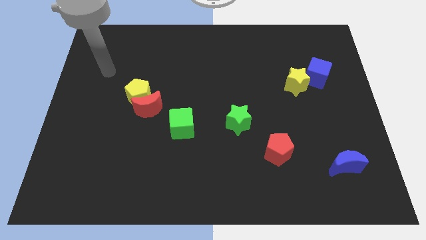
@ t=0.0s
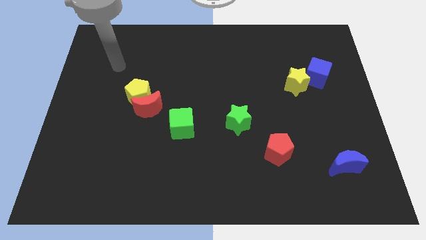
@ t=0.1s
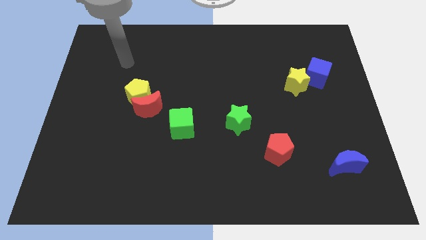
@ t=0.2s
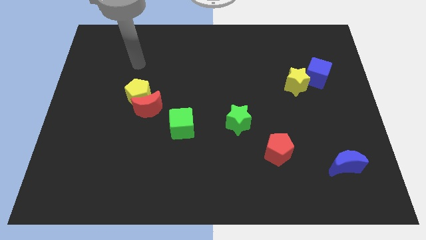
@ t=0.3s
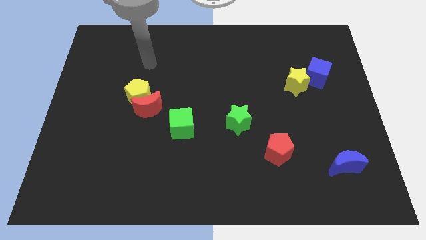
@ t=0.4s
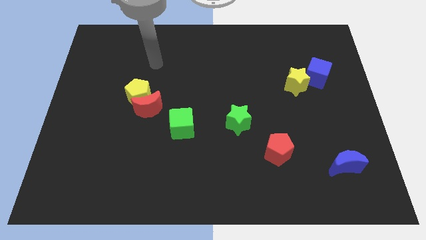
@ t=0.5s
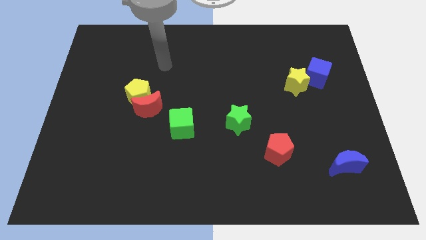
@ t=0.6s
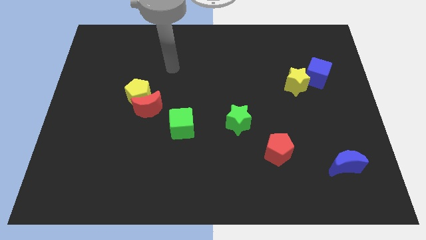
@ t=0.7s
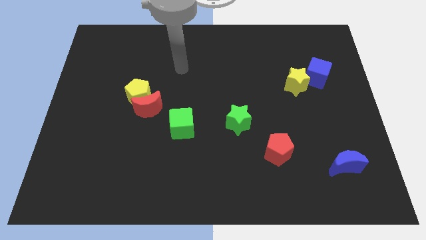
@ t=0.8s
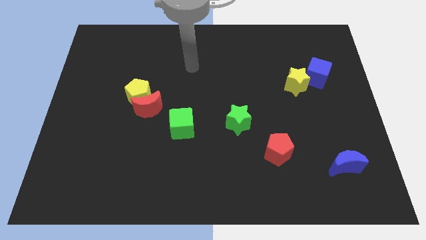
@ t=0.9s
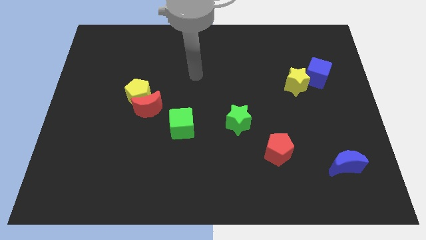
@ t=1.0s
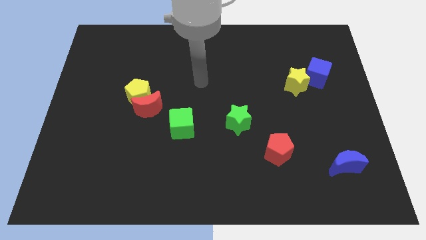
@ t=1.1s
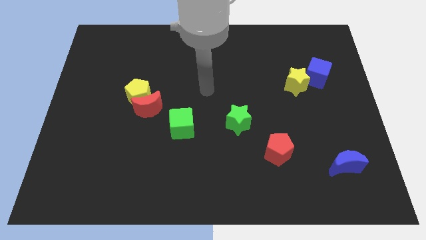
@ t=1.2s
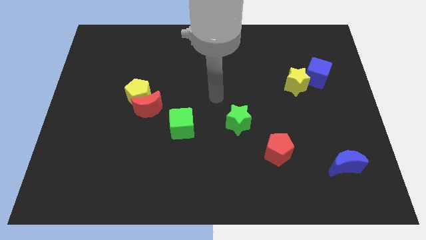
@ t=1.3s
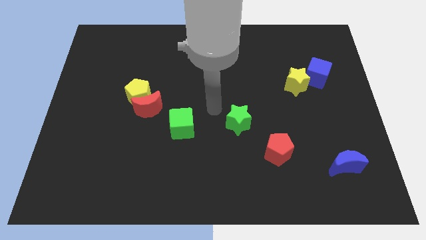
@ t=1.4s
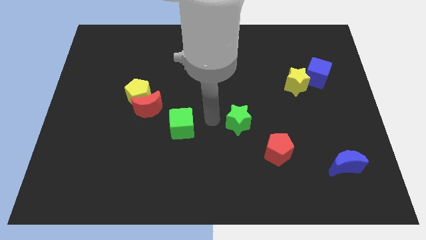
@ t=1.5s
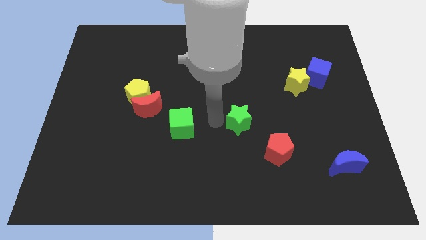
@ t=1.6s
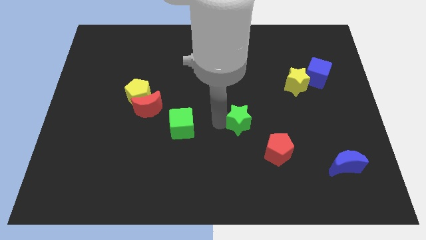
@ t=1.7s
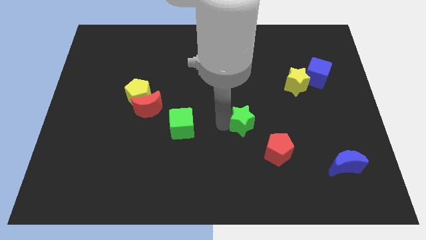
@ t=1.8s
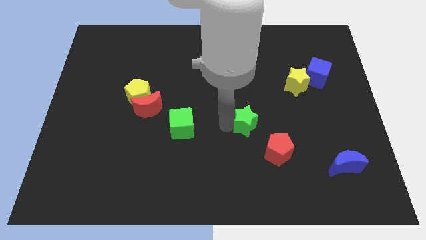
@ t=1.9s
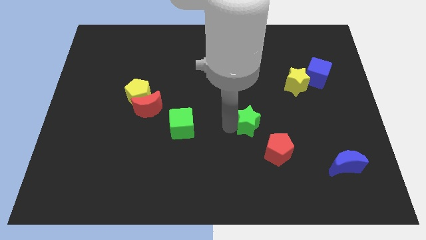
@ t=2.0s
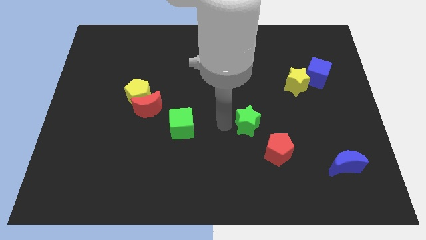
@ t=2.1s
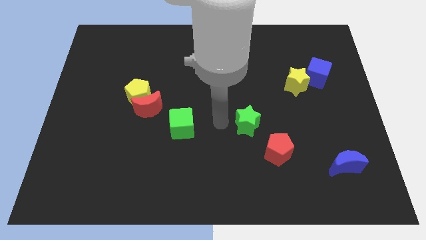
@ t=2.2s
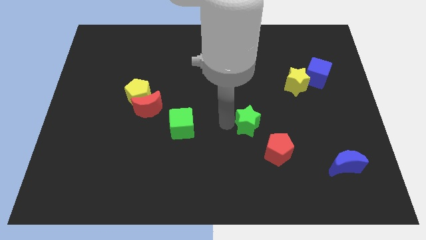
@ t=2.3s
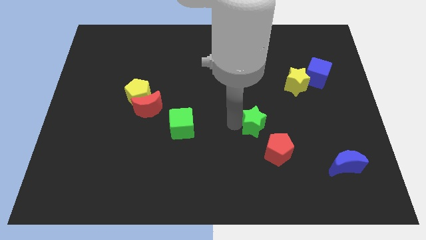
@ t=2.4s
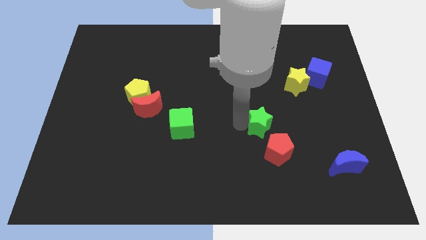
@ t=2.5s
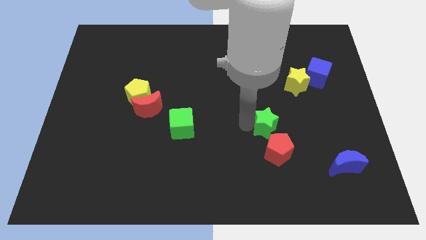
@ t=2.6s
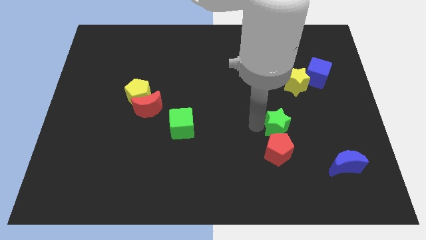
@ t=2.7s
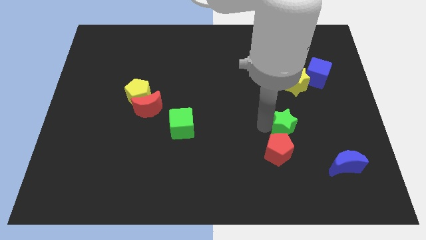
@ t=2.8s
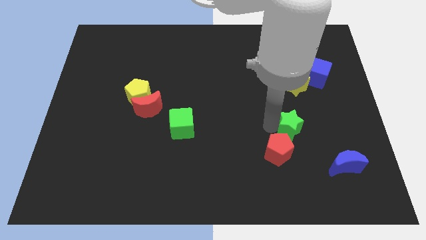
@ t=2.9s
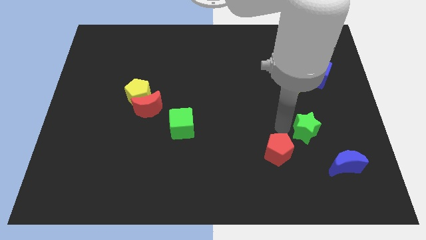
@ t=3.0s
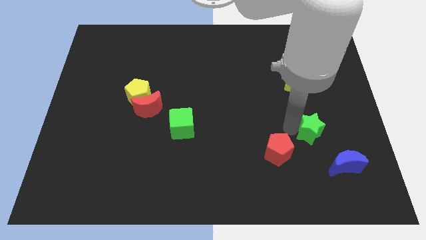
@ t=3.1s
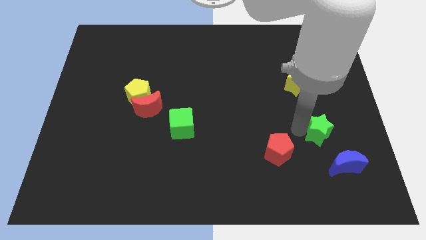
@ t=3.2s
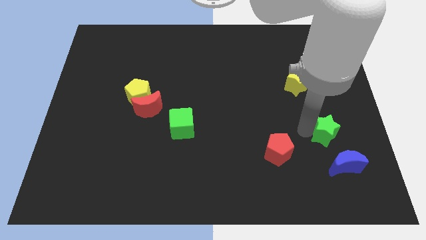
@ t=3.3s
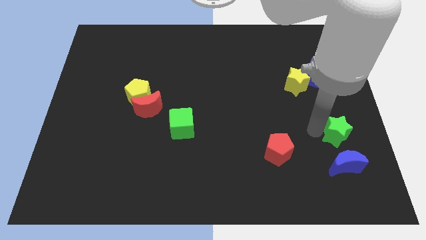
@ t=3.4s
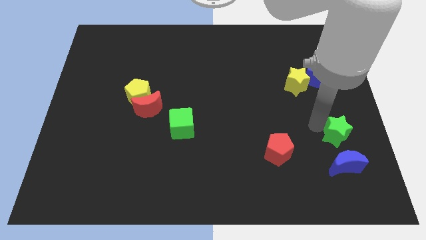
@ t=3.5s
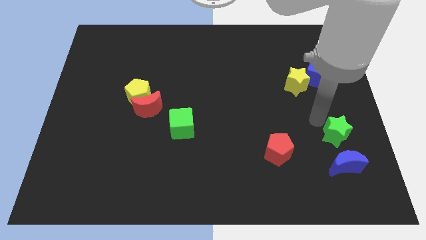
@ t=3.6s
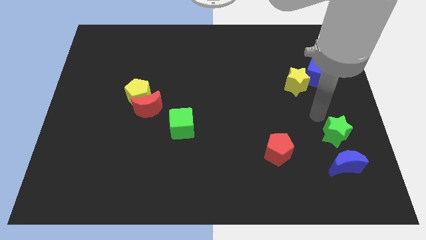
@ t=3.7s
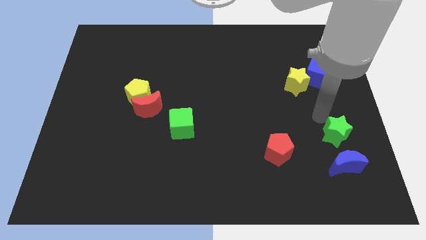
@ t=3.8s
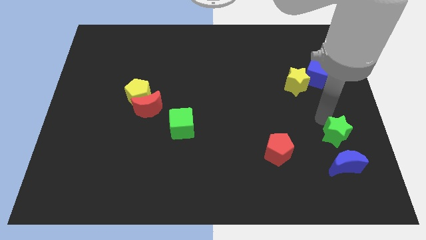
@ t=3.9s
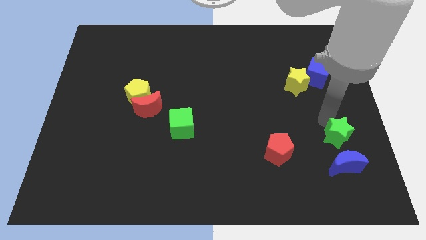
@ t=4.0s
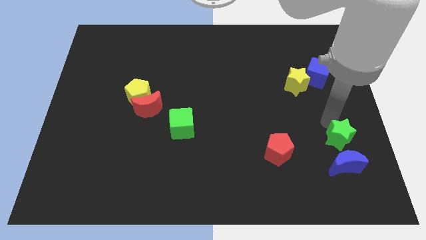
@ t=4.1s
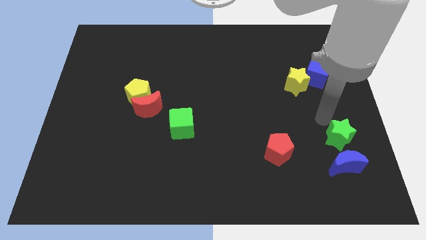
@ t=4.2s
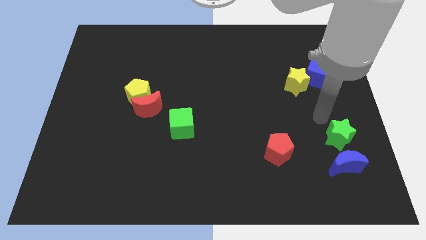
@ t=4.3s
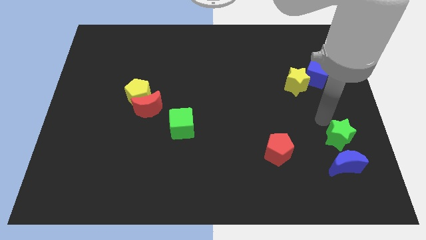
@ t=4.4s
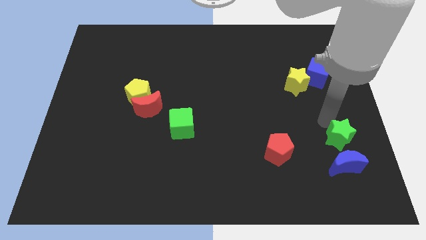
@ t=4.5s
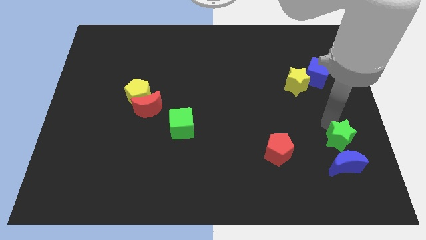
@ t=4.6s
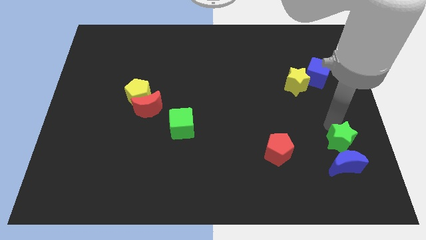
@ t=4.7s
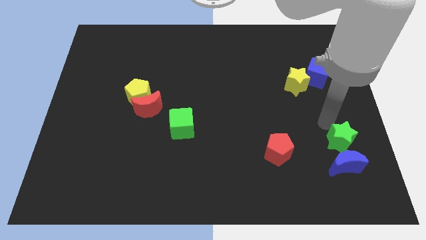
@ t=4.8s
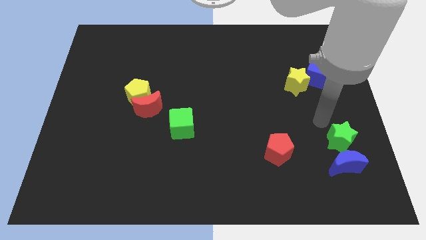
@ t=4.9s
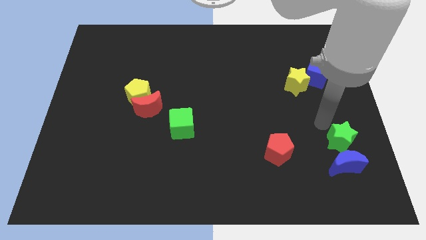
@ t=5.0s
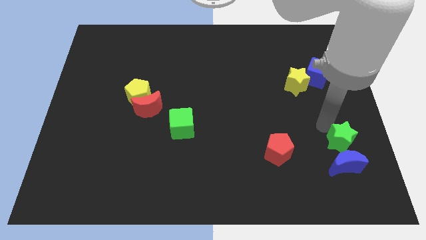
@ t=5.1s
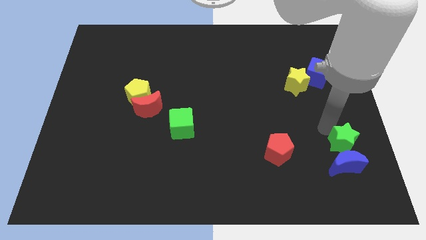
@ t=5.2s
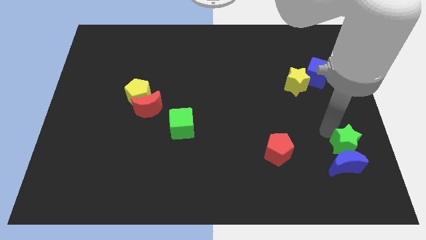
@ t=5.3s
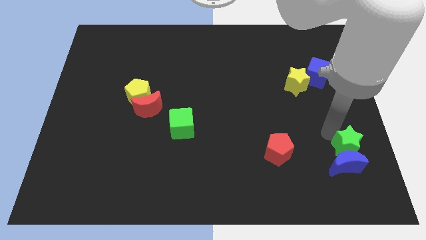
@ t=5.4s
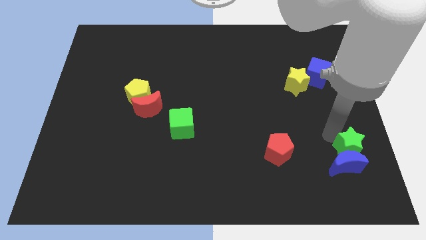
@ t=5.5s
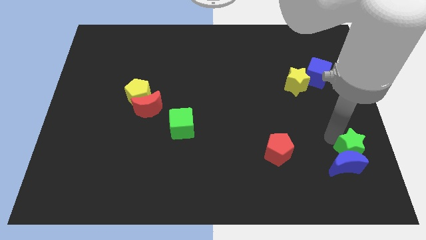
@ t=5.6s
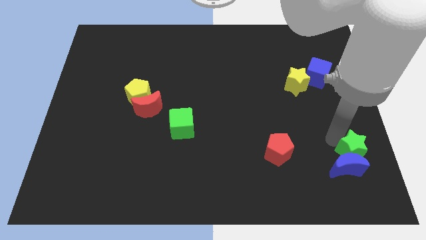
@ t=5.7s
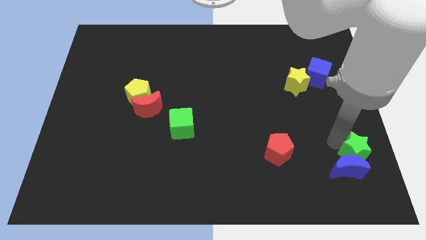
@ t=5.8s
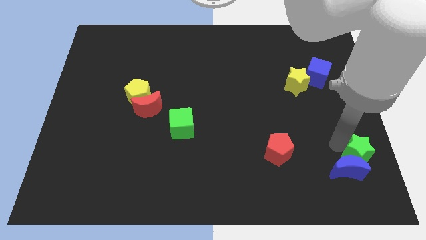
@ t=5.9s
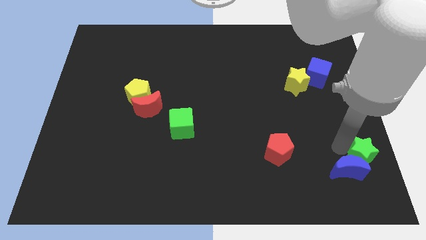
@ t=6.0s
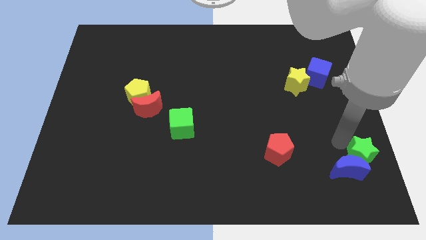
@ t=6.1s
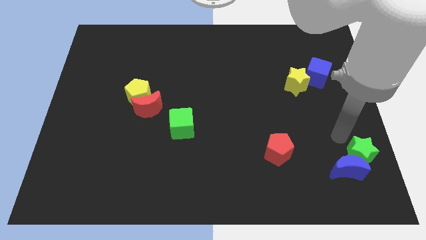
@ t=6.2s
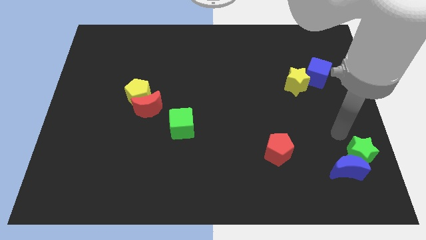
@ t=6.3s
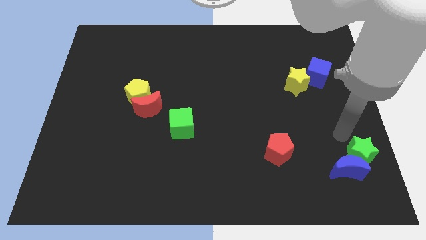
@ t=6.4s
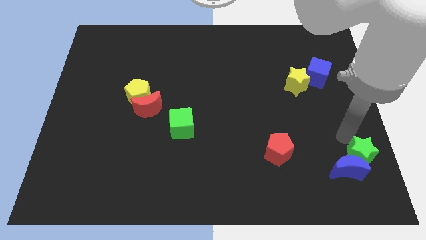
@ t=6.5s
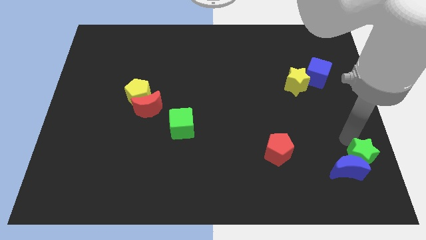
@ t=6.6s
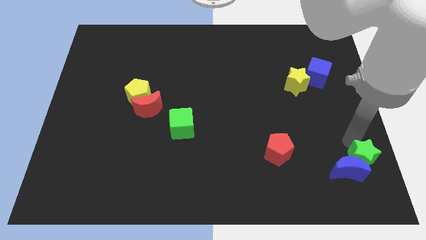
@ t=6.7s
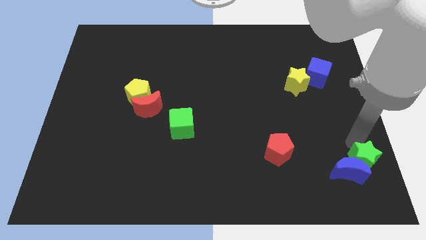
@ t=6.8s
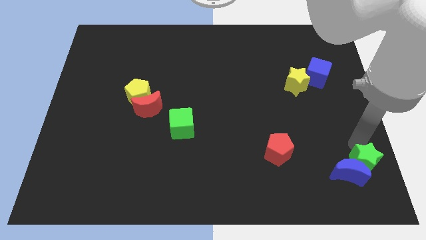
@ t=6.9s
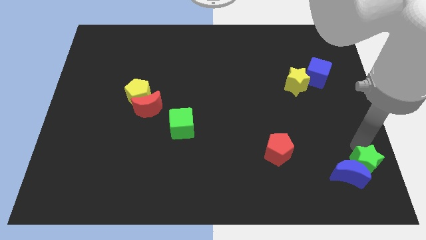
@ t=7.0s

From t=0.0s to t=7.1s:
push the green star to the bottom right of the board

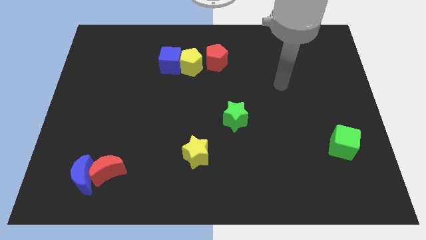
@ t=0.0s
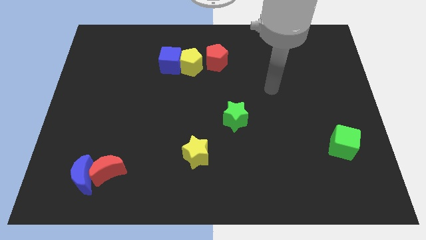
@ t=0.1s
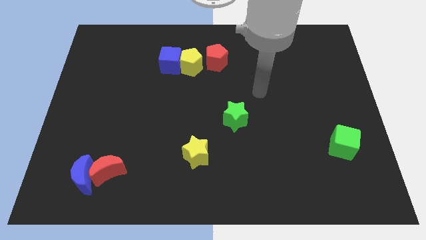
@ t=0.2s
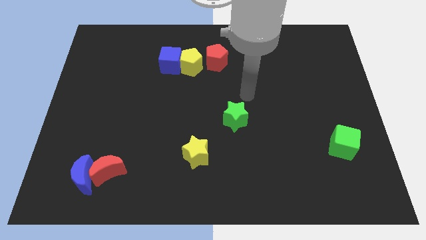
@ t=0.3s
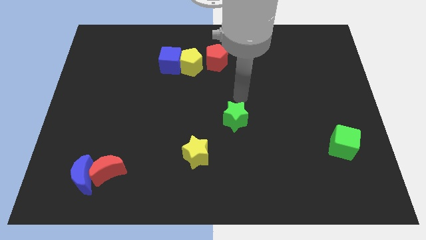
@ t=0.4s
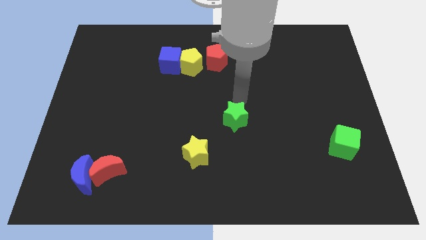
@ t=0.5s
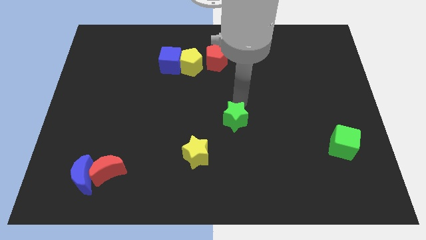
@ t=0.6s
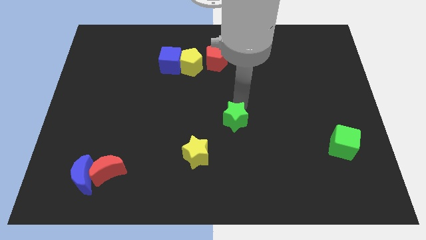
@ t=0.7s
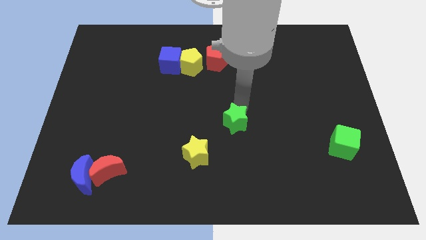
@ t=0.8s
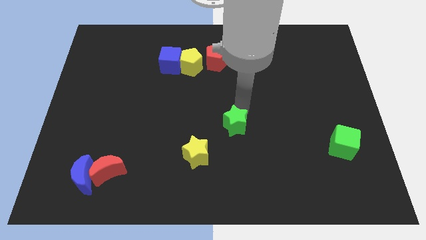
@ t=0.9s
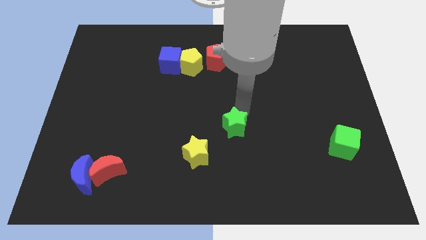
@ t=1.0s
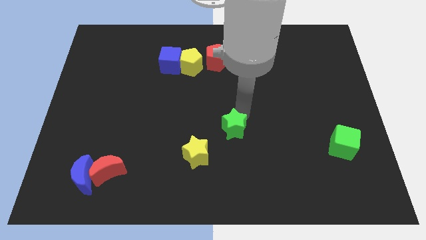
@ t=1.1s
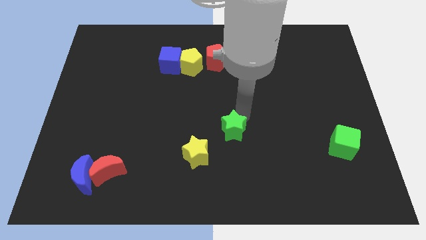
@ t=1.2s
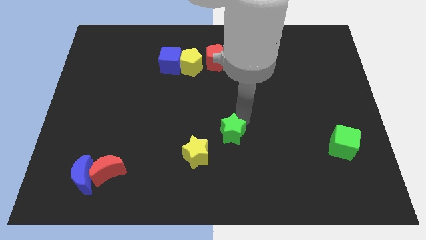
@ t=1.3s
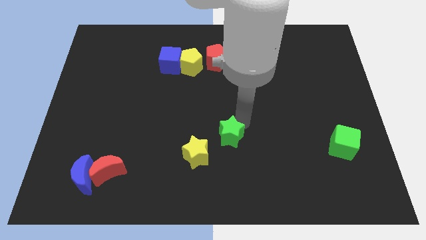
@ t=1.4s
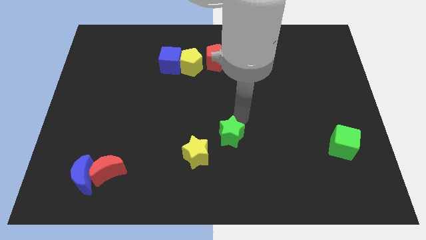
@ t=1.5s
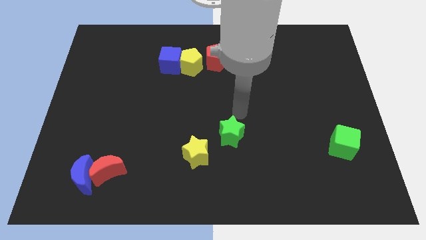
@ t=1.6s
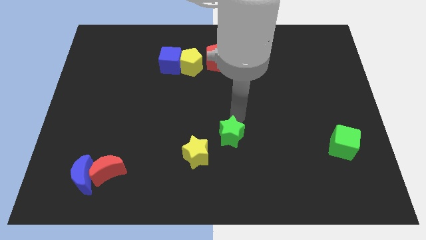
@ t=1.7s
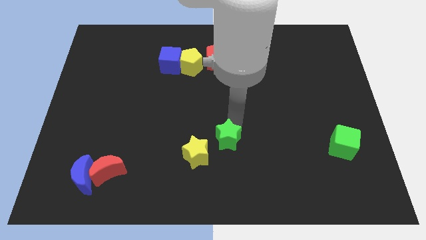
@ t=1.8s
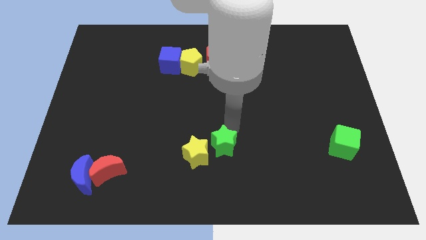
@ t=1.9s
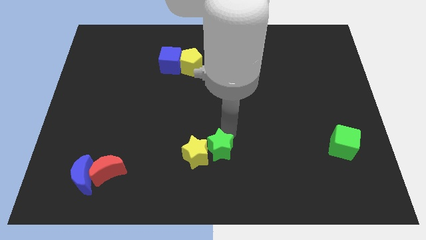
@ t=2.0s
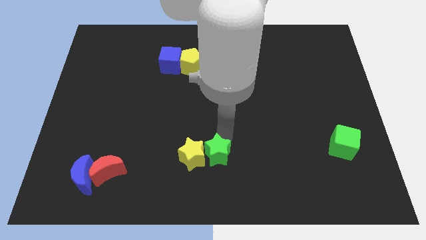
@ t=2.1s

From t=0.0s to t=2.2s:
move the green star to the bottom side
